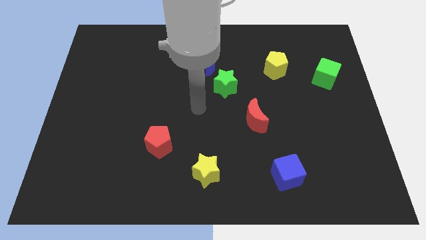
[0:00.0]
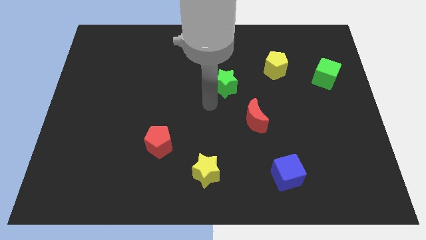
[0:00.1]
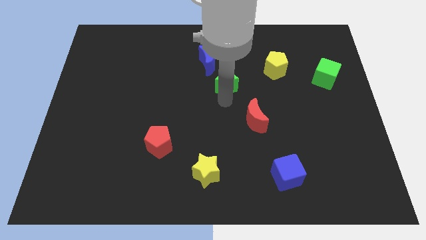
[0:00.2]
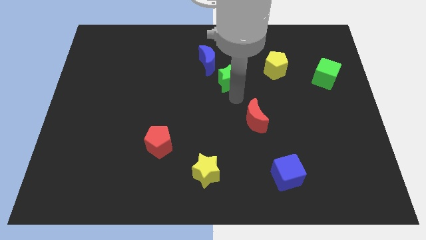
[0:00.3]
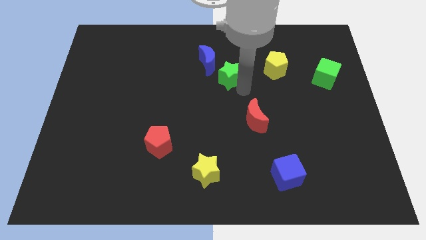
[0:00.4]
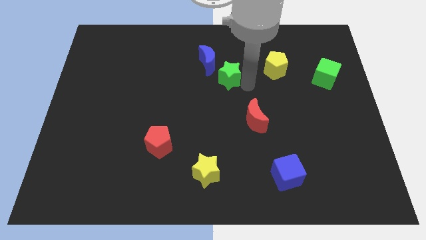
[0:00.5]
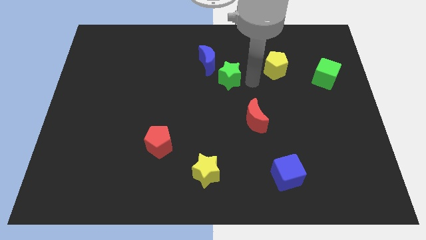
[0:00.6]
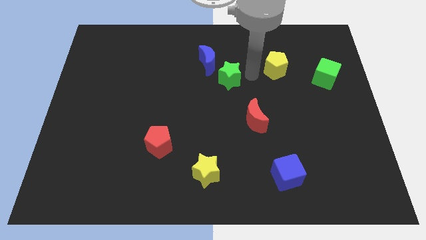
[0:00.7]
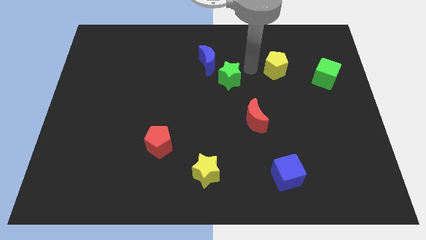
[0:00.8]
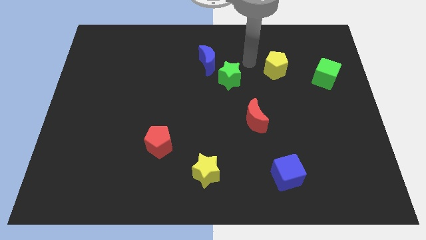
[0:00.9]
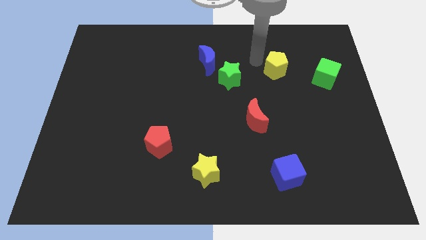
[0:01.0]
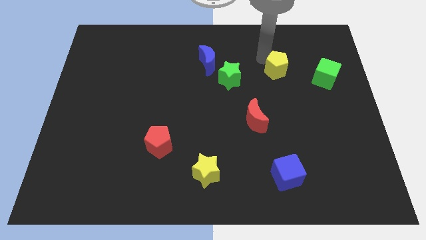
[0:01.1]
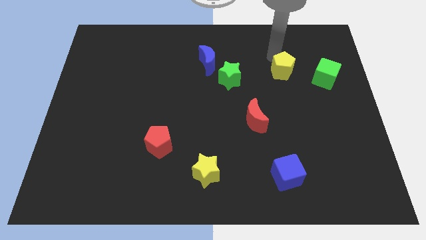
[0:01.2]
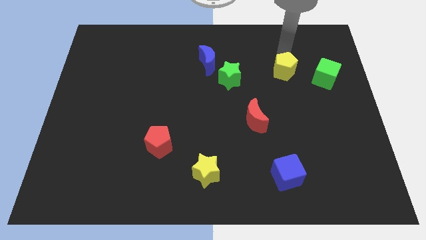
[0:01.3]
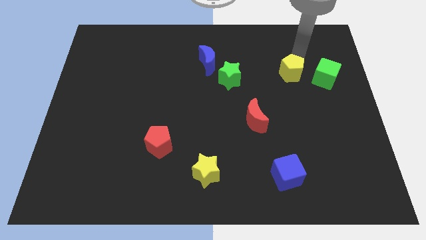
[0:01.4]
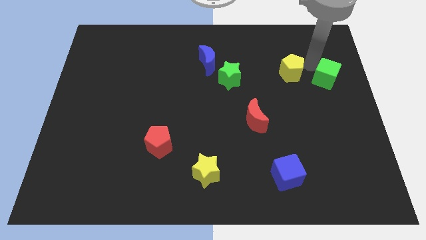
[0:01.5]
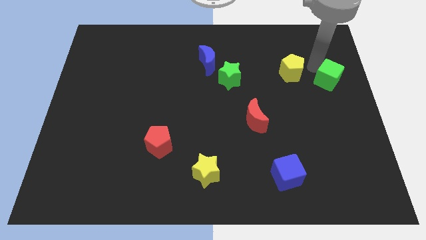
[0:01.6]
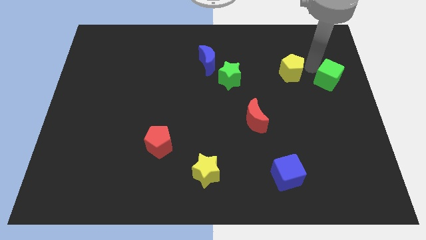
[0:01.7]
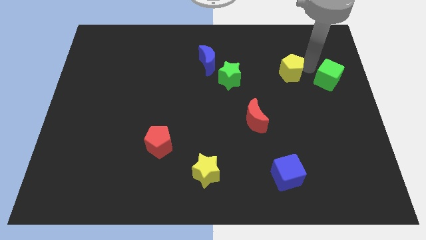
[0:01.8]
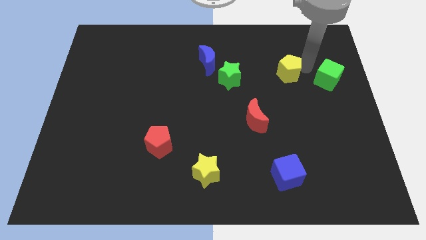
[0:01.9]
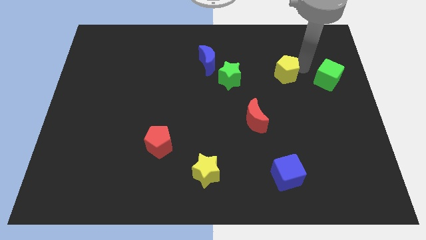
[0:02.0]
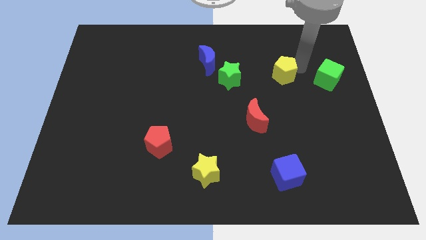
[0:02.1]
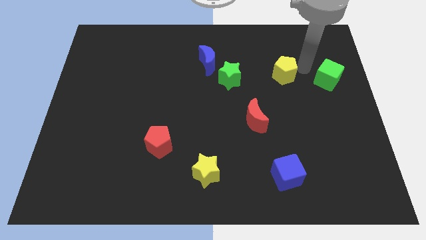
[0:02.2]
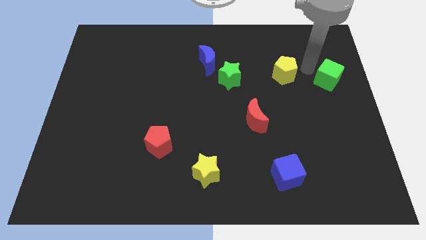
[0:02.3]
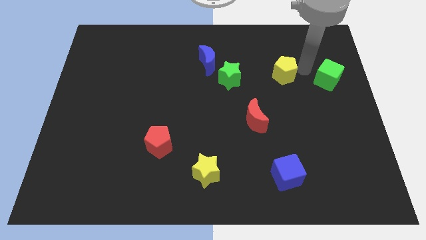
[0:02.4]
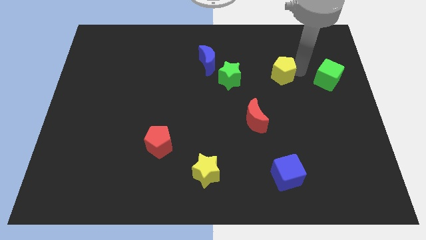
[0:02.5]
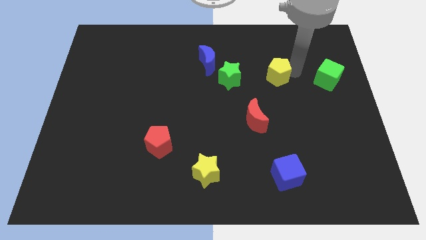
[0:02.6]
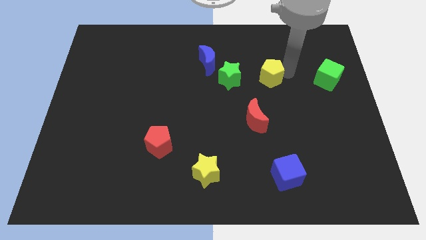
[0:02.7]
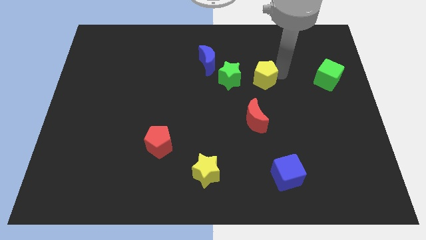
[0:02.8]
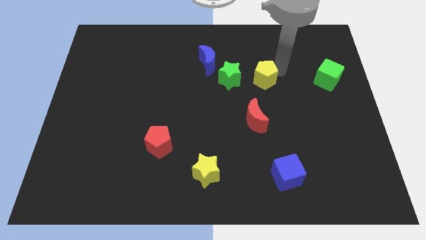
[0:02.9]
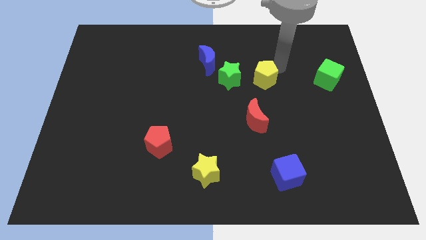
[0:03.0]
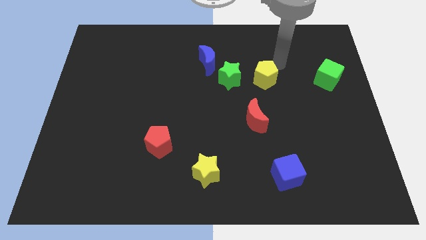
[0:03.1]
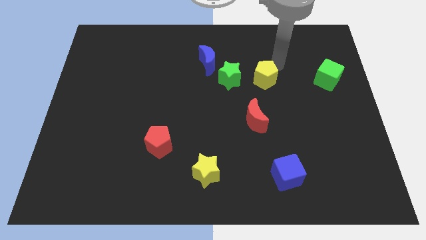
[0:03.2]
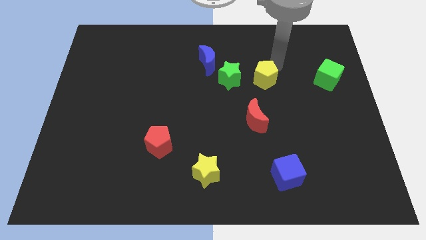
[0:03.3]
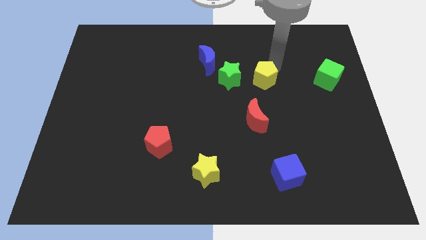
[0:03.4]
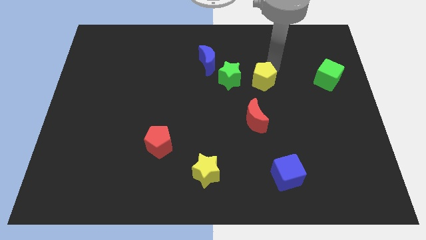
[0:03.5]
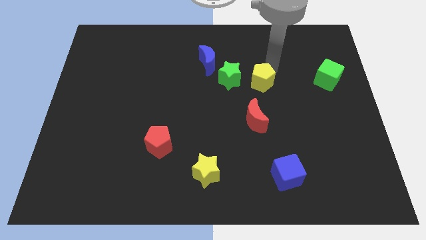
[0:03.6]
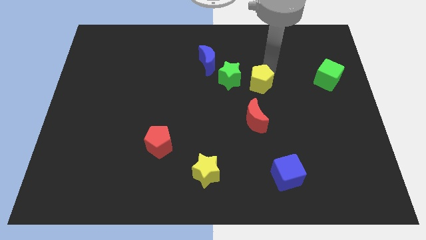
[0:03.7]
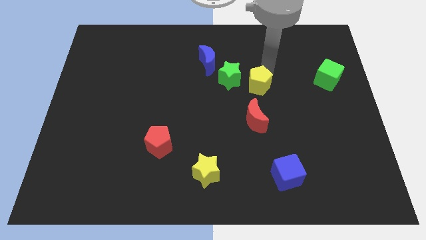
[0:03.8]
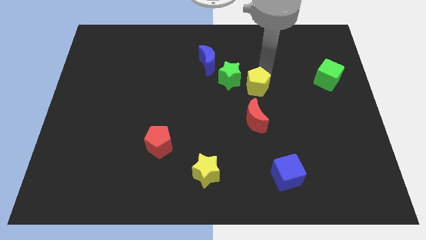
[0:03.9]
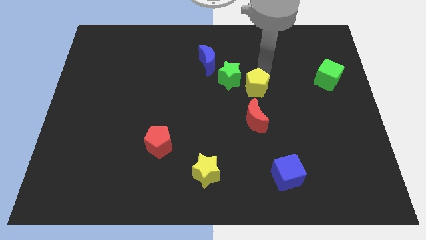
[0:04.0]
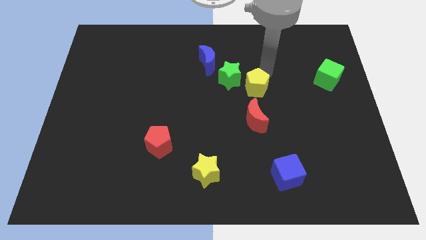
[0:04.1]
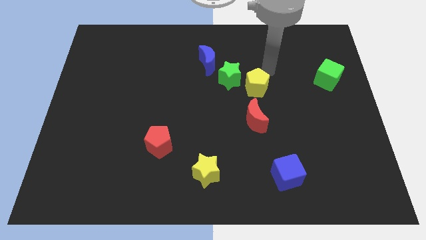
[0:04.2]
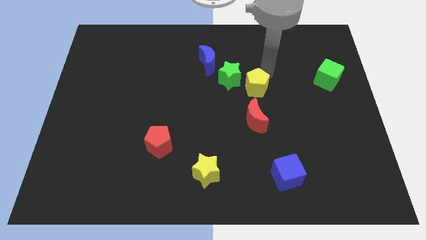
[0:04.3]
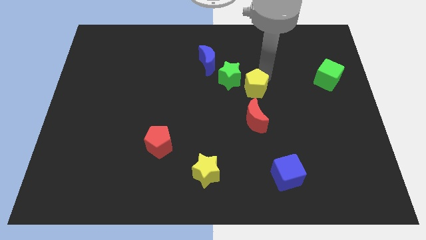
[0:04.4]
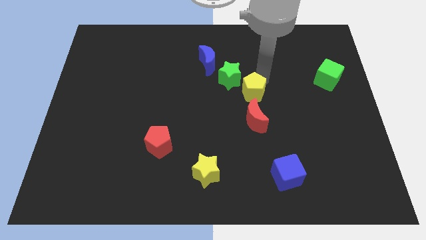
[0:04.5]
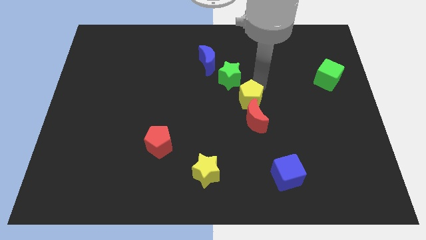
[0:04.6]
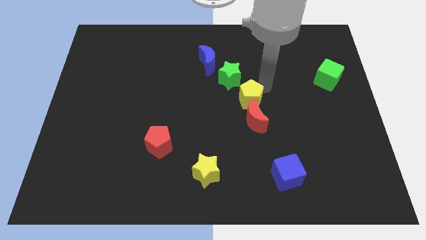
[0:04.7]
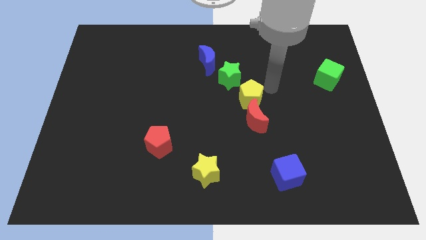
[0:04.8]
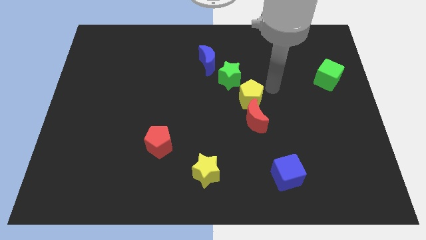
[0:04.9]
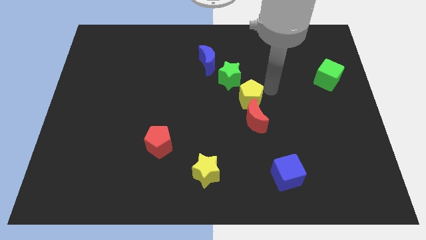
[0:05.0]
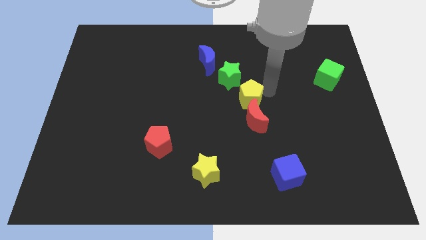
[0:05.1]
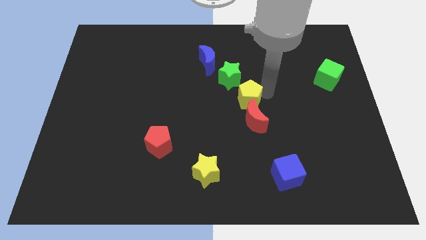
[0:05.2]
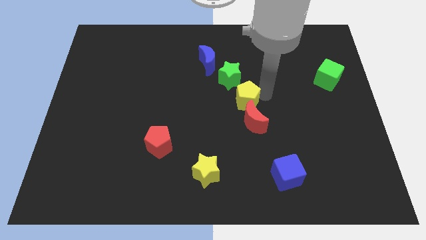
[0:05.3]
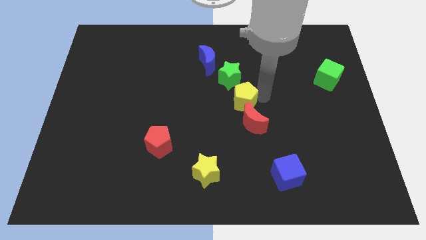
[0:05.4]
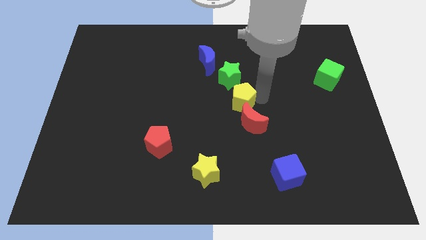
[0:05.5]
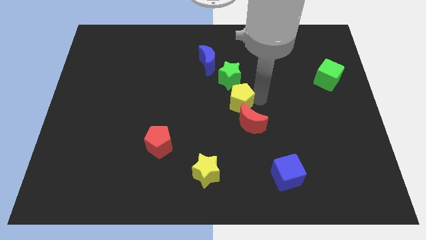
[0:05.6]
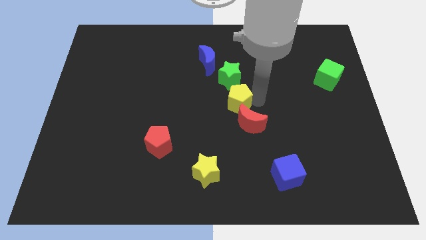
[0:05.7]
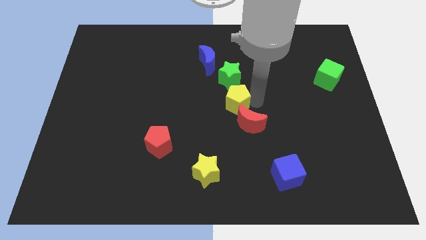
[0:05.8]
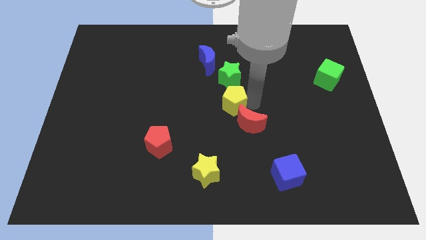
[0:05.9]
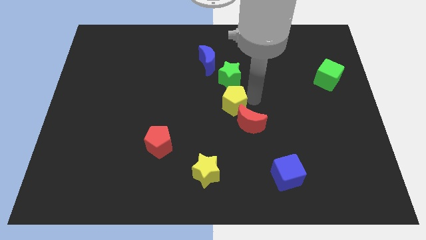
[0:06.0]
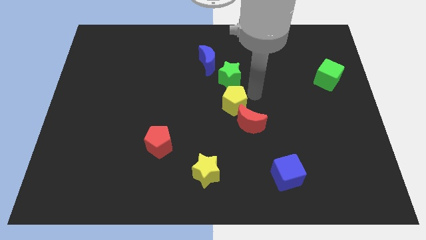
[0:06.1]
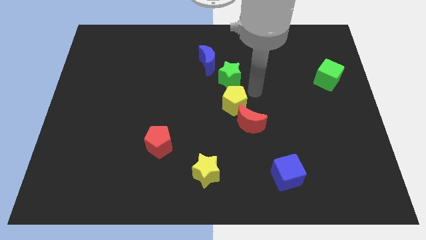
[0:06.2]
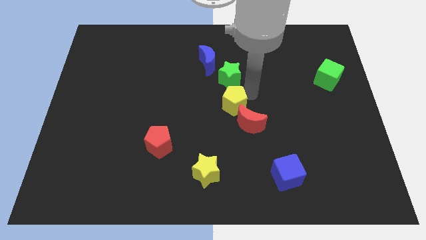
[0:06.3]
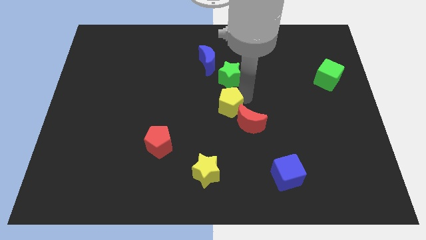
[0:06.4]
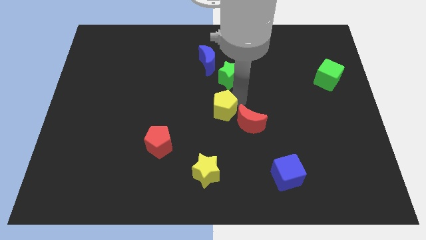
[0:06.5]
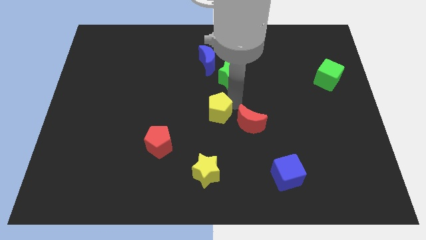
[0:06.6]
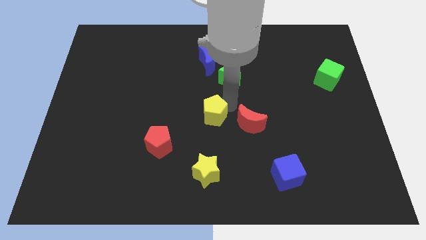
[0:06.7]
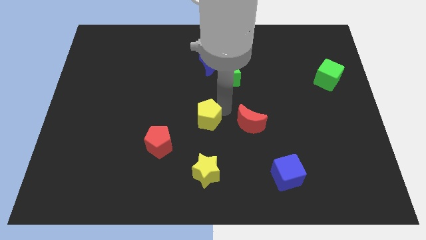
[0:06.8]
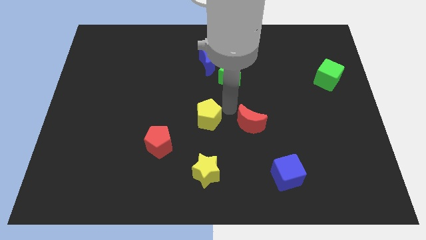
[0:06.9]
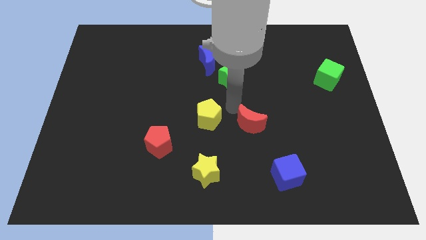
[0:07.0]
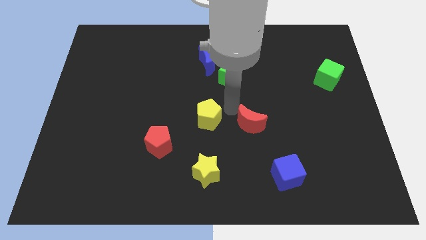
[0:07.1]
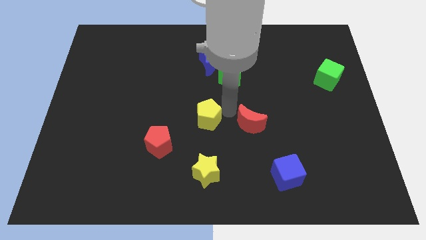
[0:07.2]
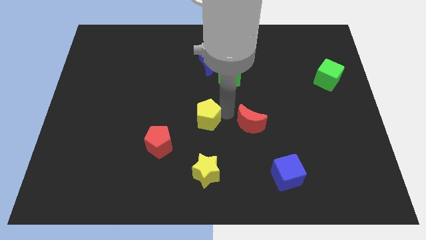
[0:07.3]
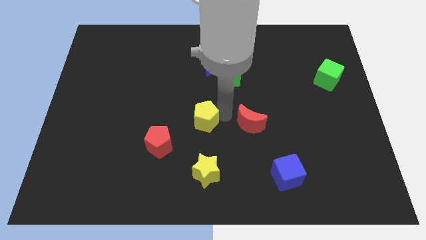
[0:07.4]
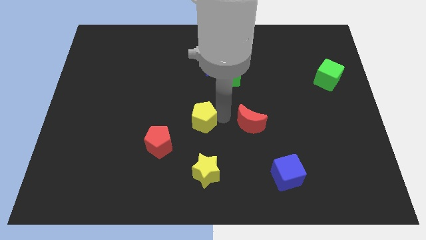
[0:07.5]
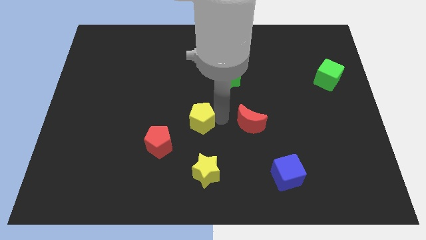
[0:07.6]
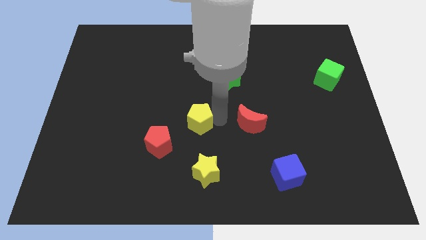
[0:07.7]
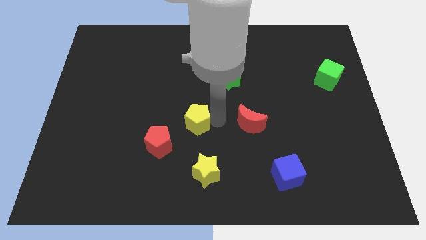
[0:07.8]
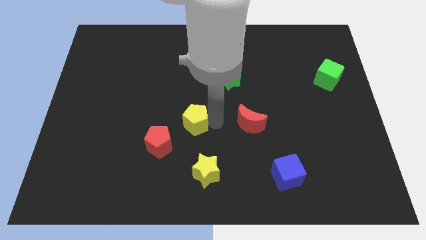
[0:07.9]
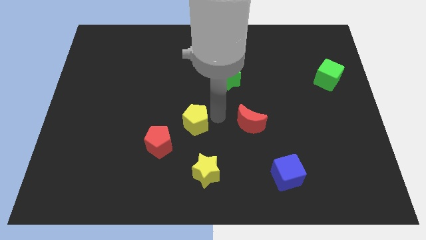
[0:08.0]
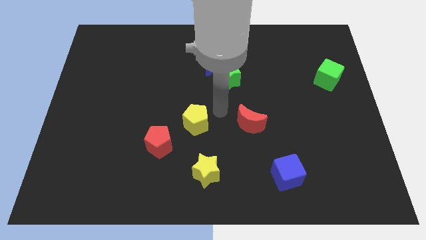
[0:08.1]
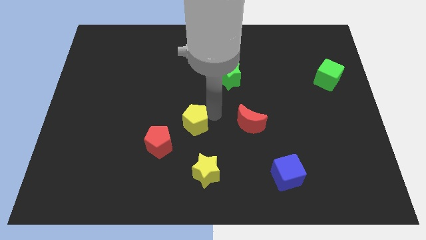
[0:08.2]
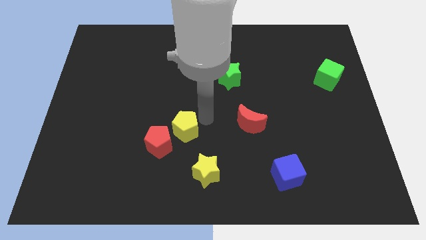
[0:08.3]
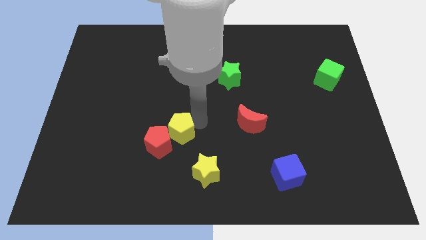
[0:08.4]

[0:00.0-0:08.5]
slide the yellow pentagon next to the red pentagon
